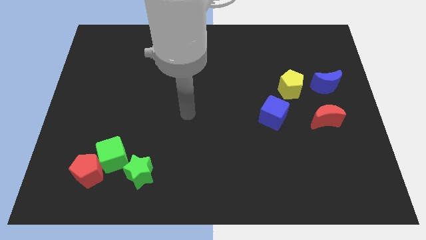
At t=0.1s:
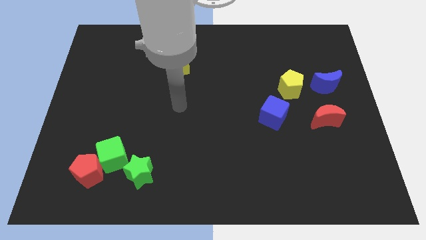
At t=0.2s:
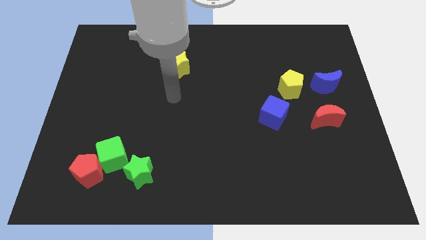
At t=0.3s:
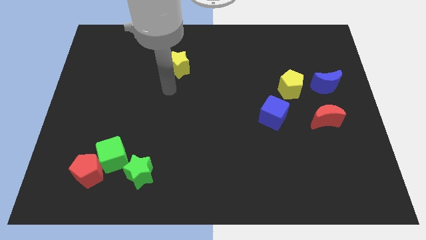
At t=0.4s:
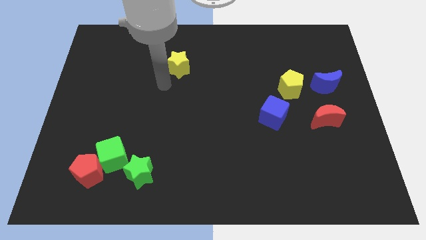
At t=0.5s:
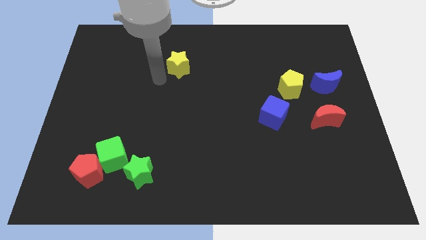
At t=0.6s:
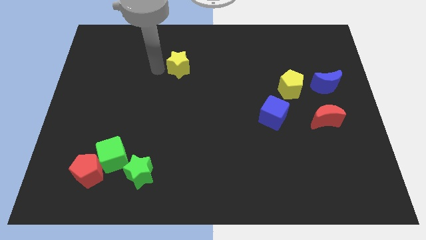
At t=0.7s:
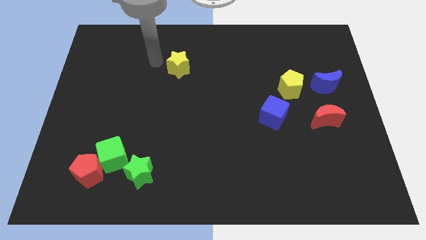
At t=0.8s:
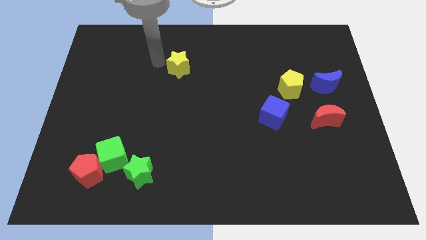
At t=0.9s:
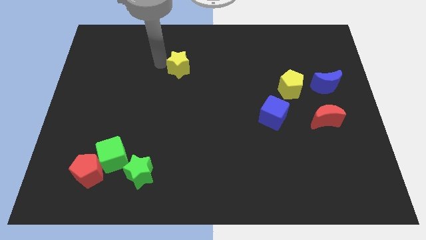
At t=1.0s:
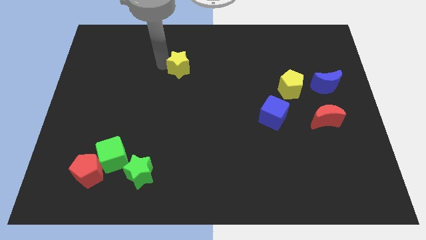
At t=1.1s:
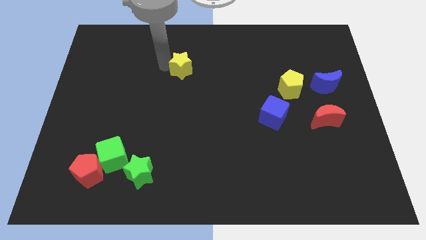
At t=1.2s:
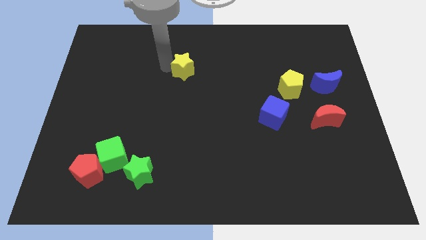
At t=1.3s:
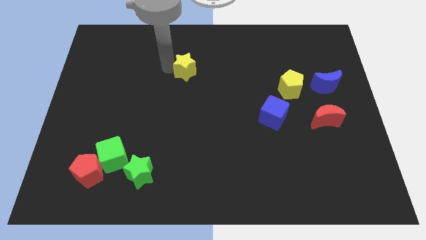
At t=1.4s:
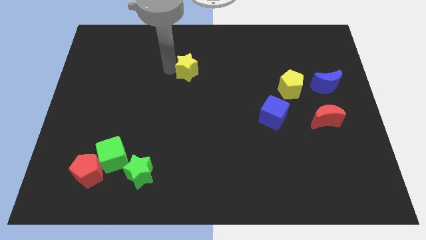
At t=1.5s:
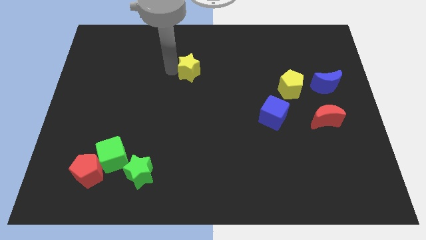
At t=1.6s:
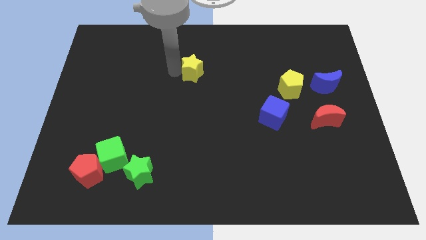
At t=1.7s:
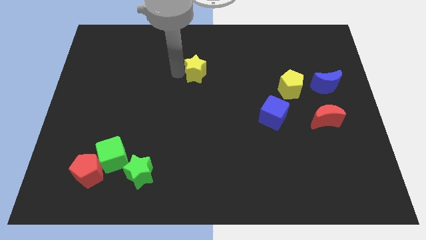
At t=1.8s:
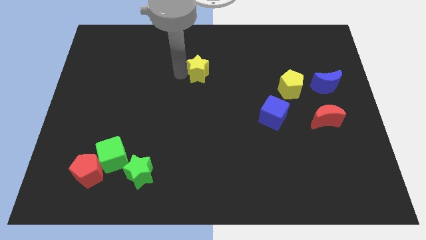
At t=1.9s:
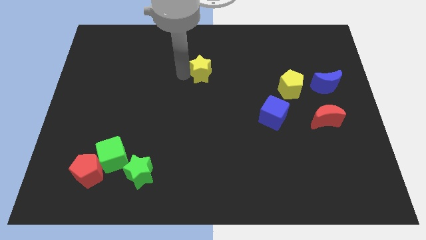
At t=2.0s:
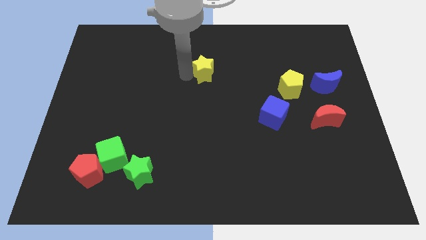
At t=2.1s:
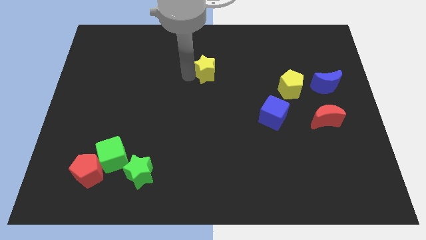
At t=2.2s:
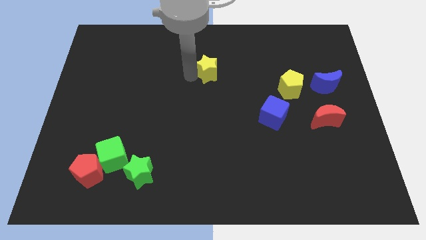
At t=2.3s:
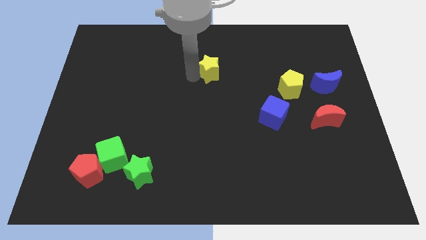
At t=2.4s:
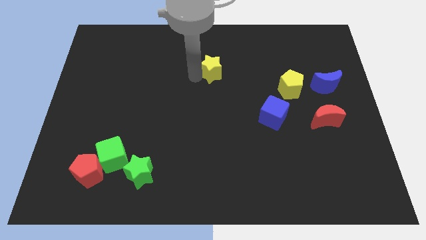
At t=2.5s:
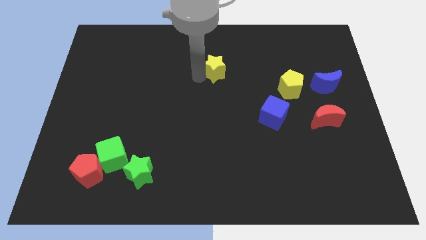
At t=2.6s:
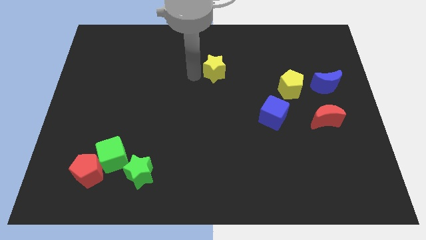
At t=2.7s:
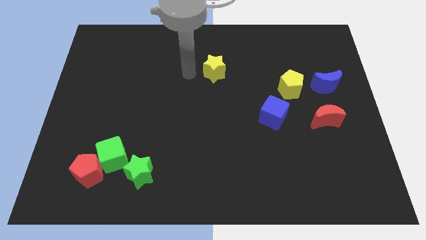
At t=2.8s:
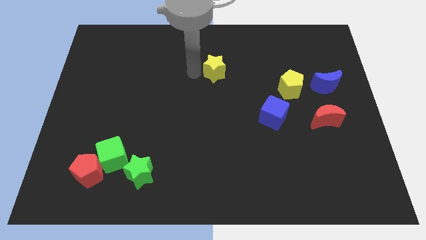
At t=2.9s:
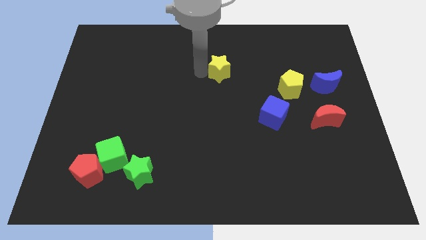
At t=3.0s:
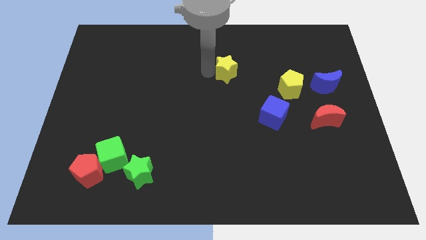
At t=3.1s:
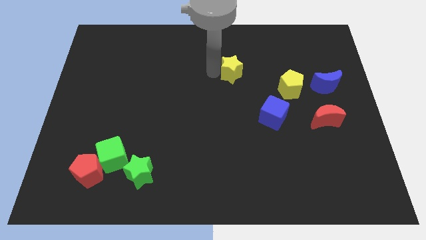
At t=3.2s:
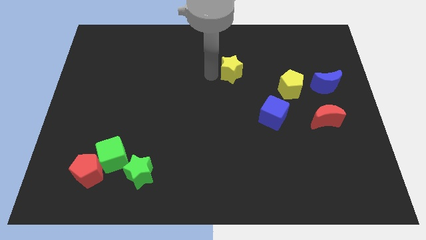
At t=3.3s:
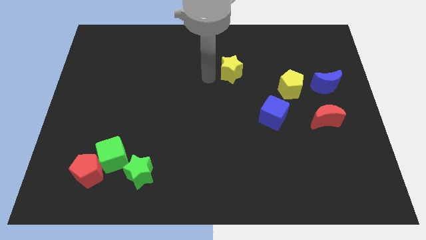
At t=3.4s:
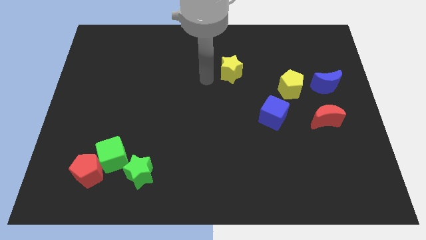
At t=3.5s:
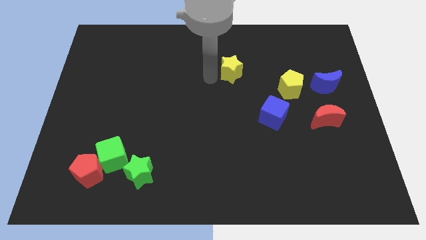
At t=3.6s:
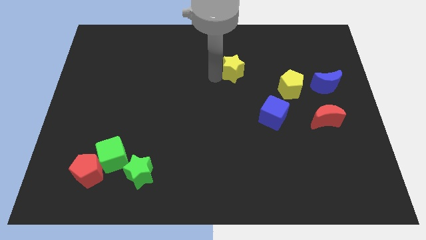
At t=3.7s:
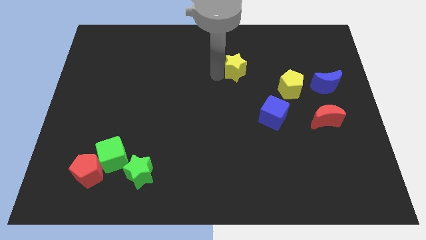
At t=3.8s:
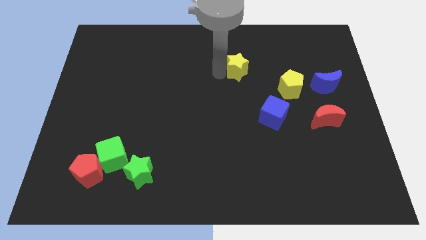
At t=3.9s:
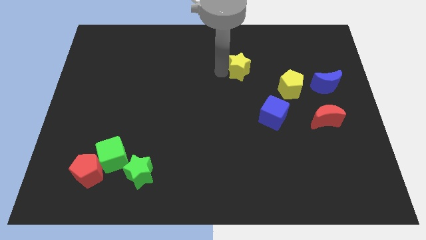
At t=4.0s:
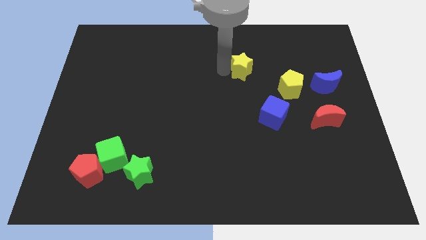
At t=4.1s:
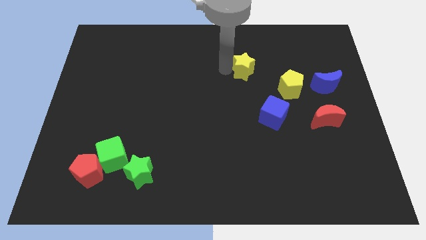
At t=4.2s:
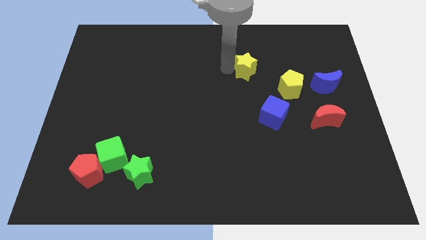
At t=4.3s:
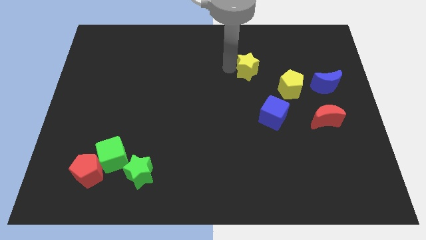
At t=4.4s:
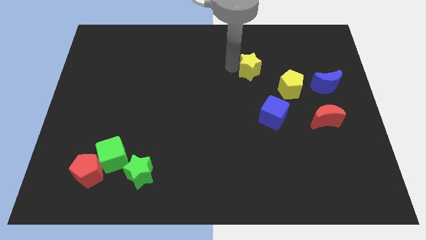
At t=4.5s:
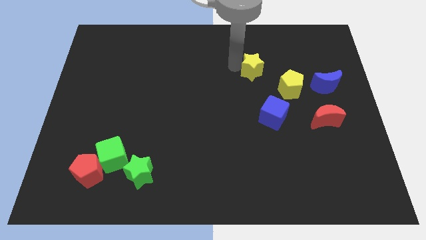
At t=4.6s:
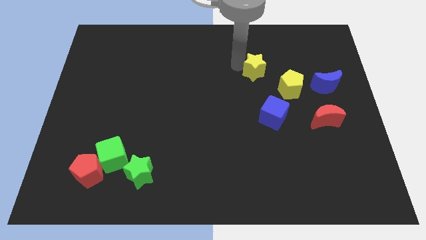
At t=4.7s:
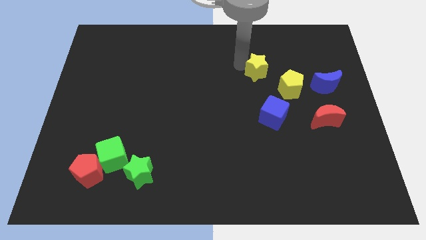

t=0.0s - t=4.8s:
slide the yellow star right

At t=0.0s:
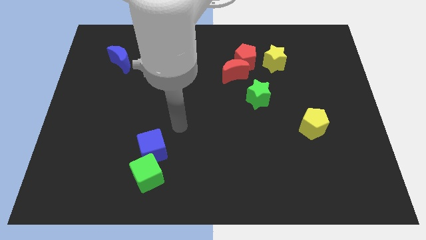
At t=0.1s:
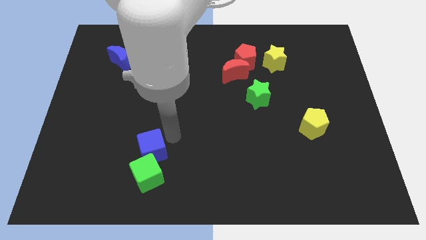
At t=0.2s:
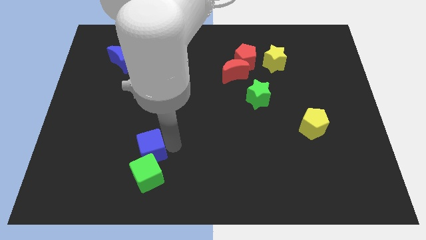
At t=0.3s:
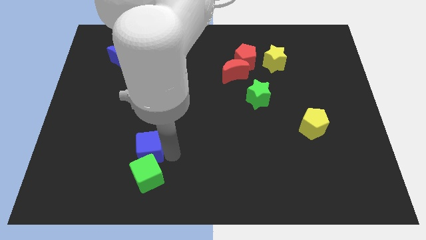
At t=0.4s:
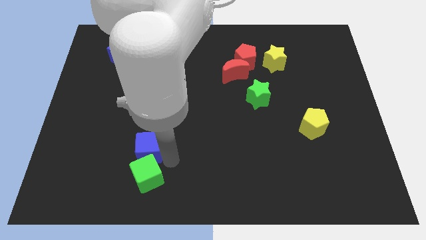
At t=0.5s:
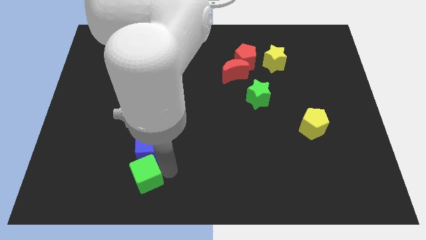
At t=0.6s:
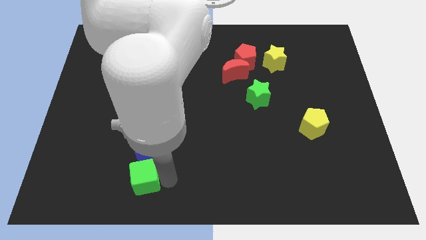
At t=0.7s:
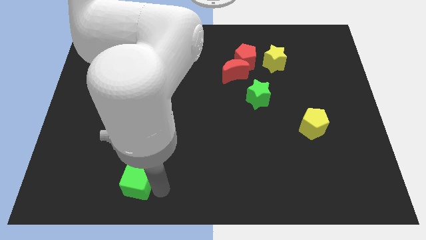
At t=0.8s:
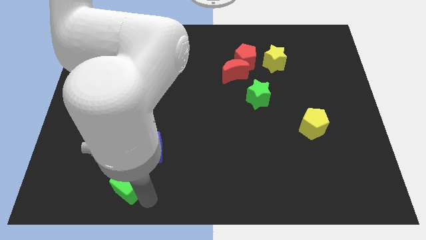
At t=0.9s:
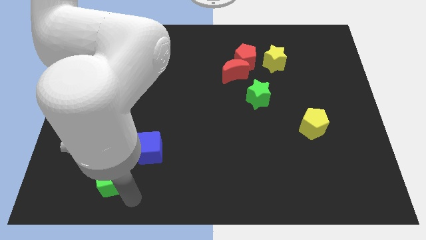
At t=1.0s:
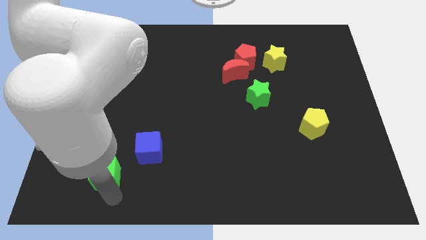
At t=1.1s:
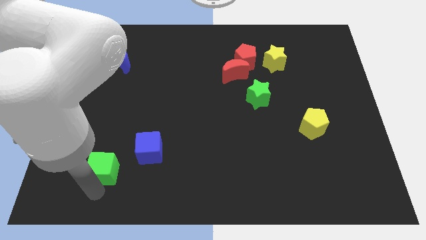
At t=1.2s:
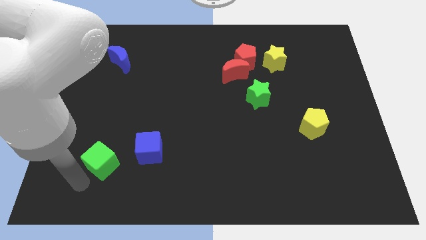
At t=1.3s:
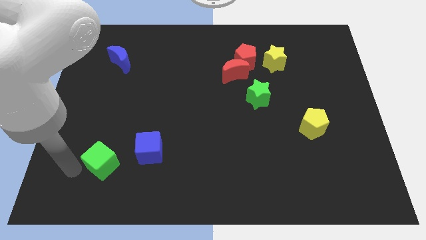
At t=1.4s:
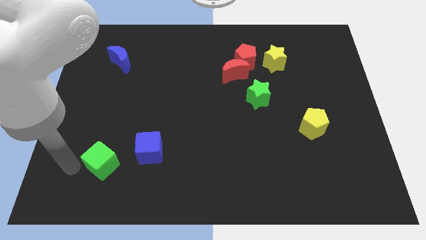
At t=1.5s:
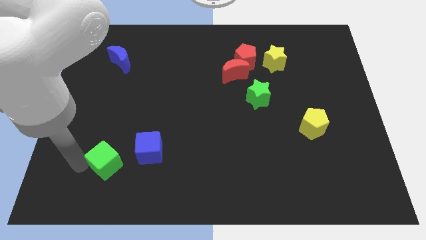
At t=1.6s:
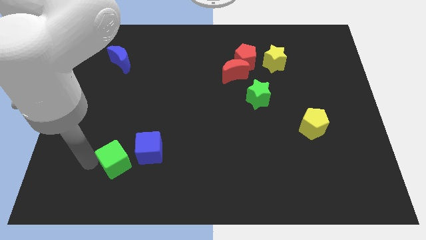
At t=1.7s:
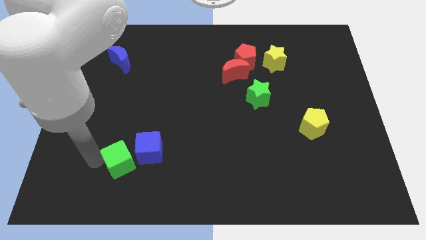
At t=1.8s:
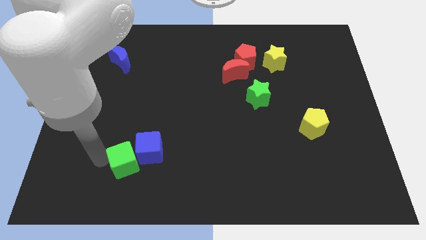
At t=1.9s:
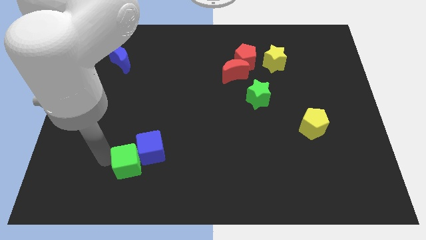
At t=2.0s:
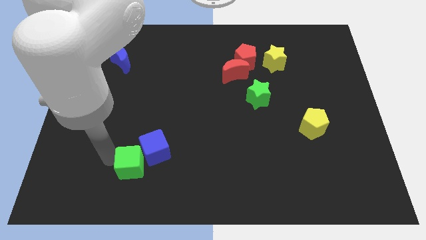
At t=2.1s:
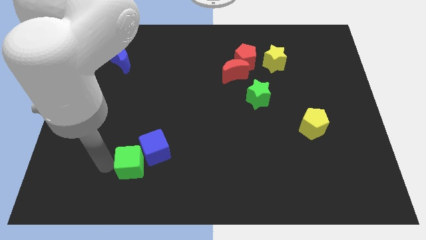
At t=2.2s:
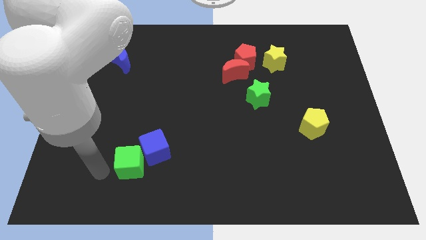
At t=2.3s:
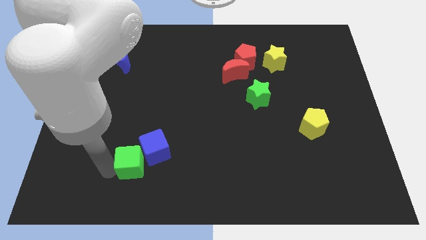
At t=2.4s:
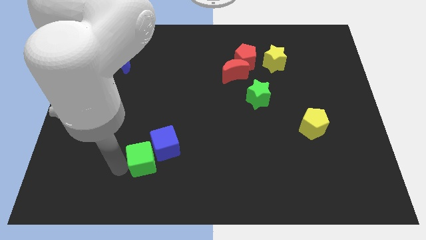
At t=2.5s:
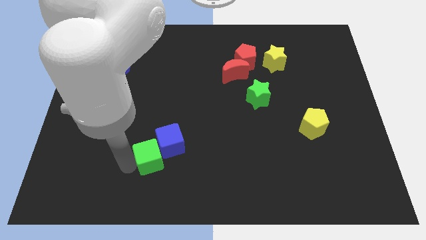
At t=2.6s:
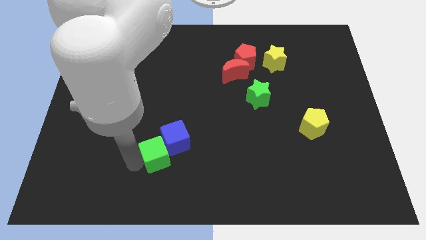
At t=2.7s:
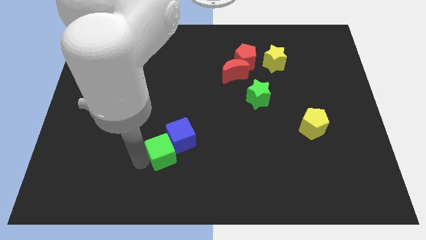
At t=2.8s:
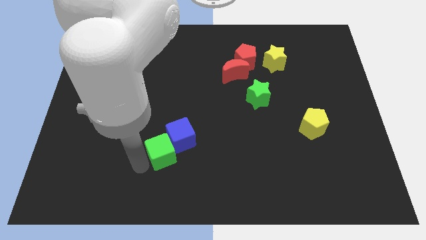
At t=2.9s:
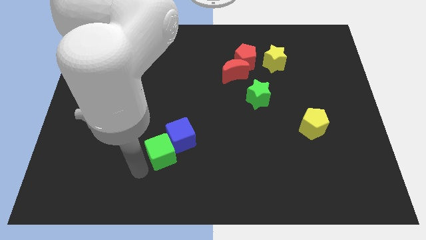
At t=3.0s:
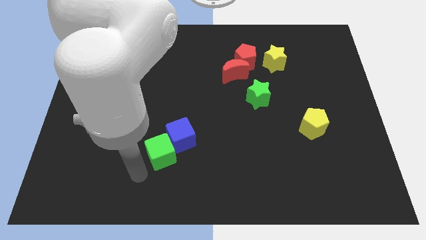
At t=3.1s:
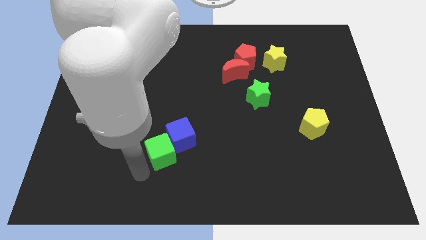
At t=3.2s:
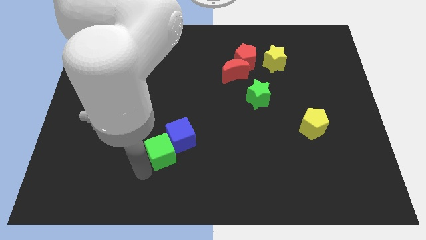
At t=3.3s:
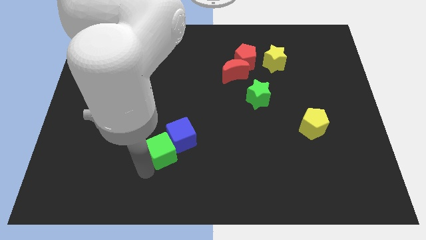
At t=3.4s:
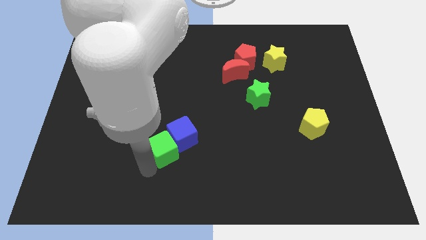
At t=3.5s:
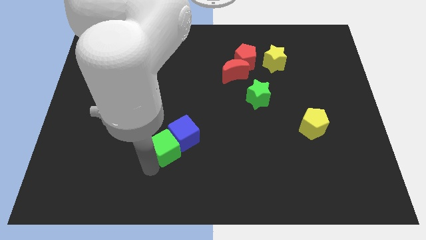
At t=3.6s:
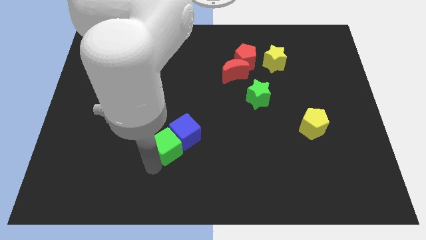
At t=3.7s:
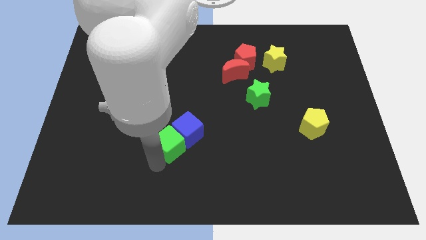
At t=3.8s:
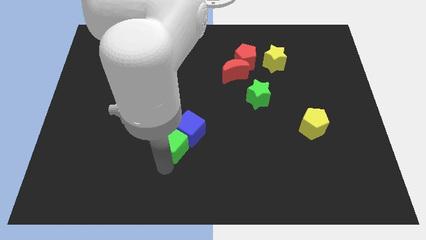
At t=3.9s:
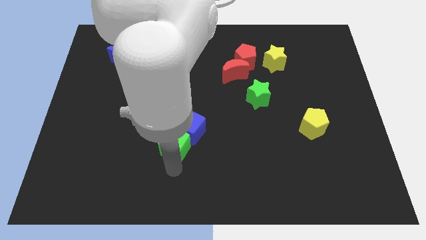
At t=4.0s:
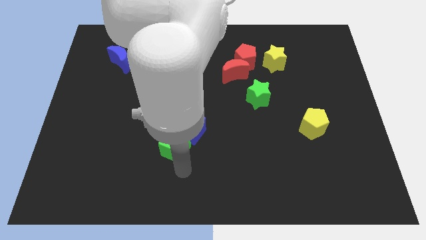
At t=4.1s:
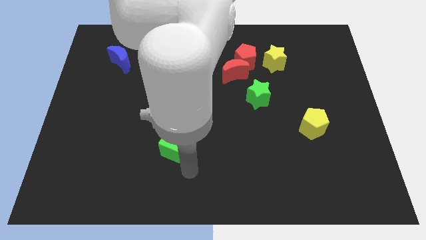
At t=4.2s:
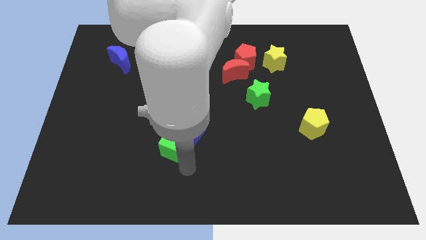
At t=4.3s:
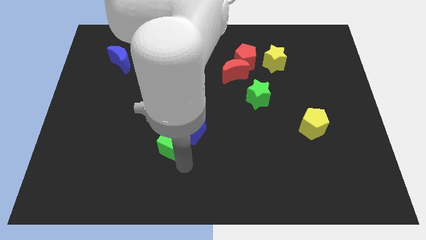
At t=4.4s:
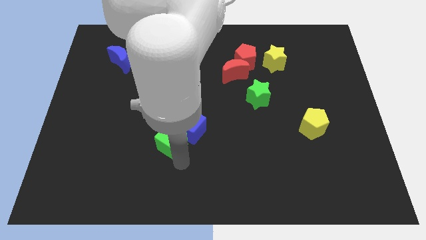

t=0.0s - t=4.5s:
move the green cube up a little
